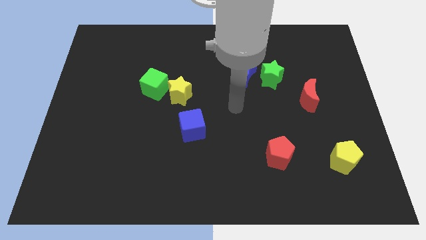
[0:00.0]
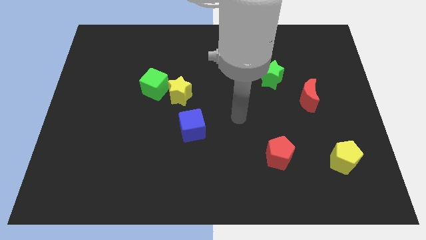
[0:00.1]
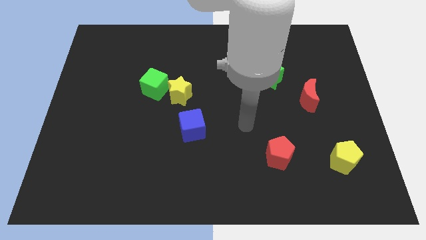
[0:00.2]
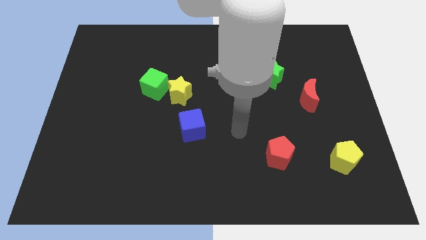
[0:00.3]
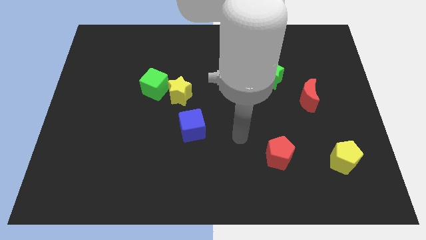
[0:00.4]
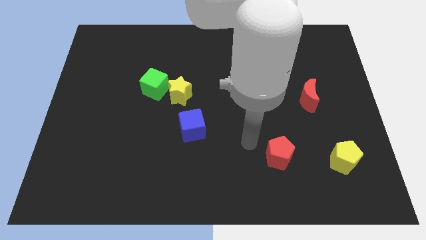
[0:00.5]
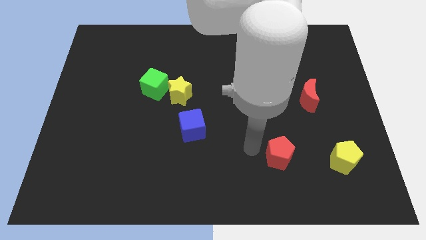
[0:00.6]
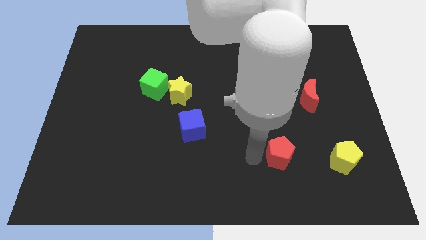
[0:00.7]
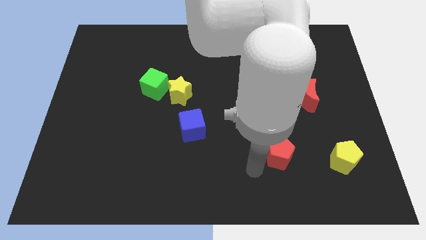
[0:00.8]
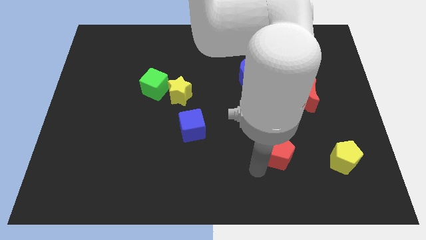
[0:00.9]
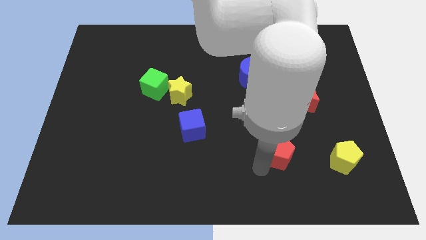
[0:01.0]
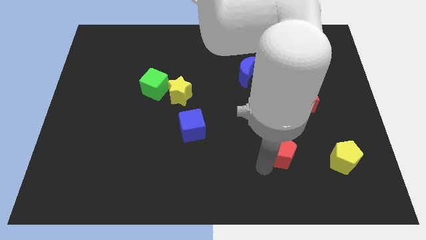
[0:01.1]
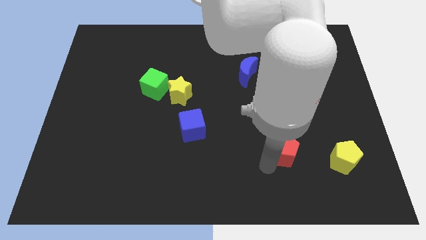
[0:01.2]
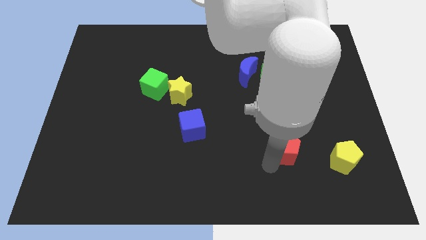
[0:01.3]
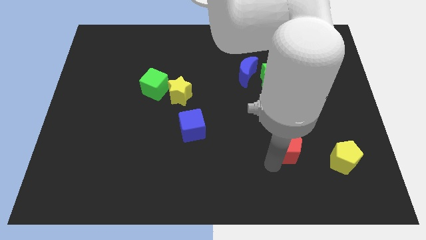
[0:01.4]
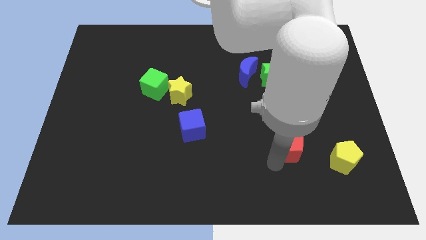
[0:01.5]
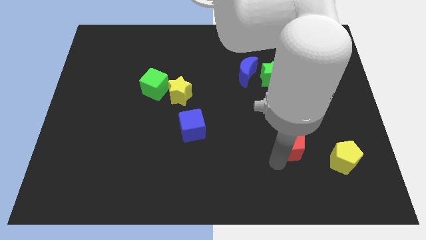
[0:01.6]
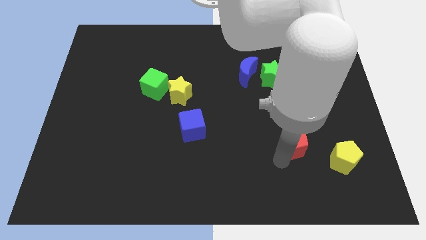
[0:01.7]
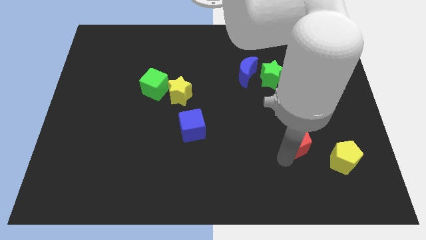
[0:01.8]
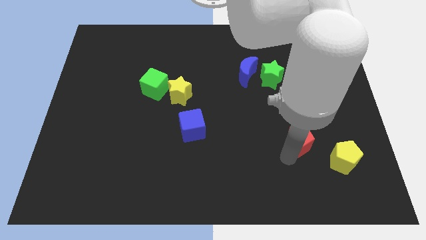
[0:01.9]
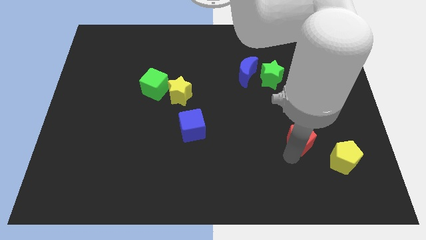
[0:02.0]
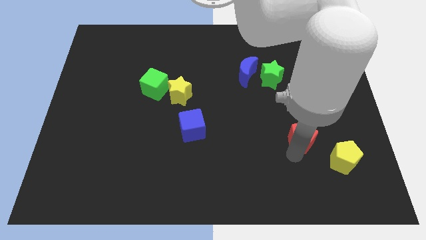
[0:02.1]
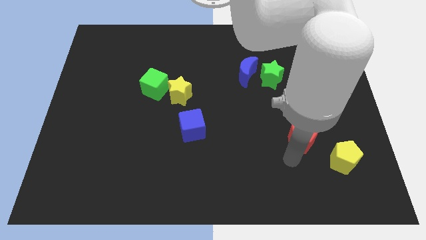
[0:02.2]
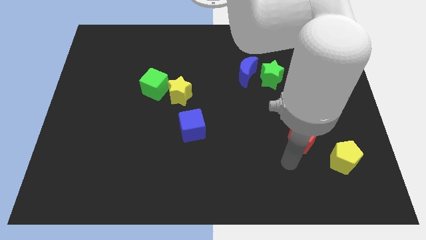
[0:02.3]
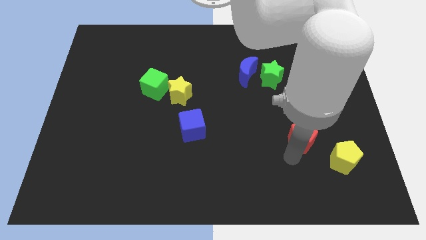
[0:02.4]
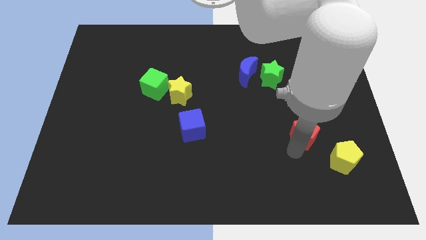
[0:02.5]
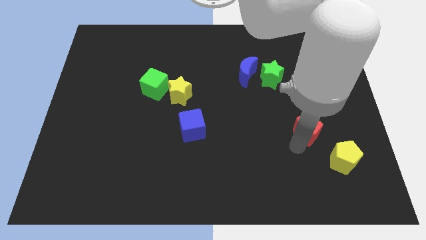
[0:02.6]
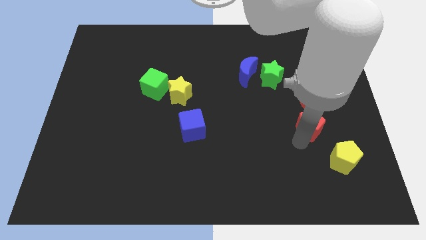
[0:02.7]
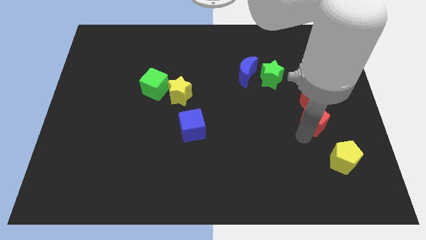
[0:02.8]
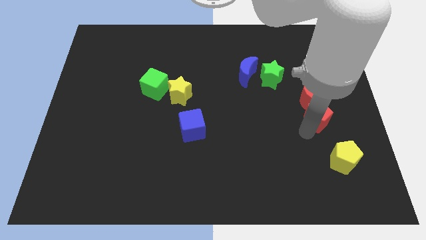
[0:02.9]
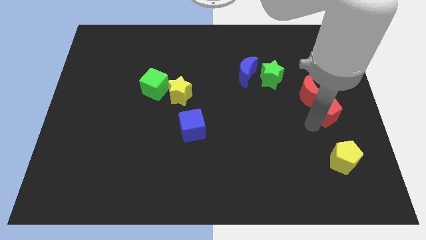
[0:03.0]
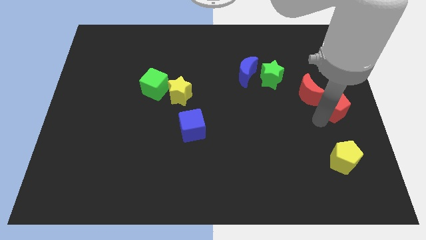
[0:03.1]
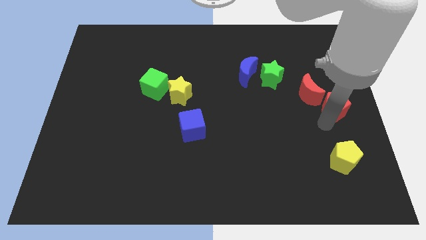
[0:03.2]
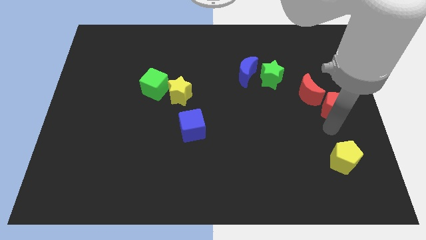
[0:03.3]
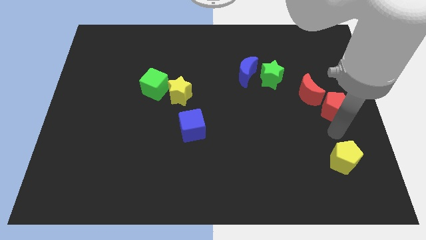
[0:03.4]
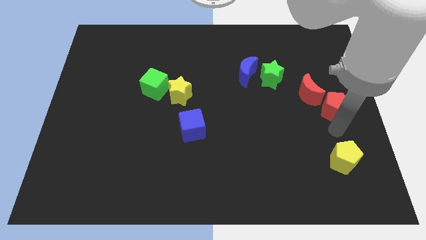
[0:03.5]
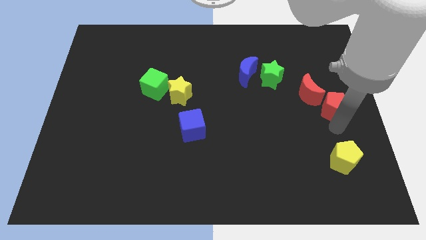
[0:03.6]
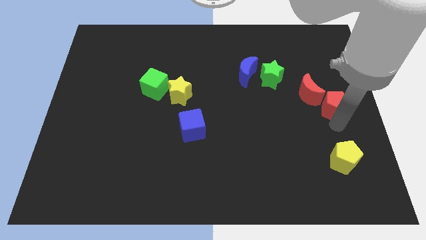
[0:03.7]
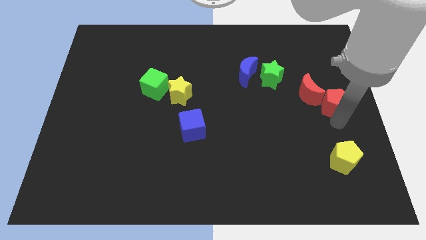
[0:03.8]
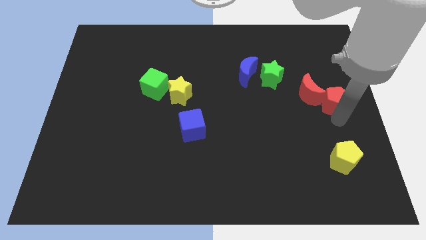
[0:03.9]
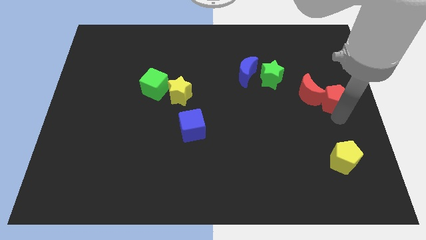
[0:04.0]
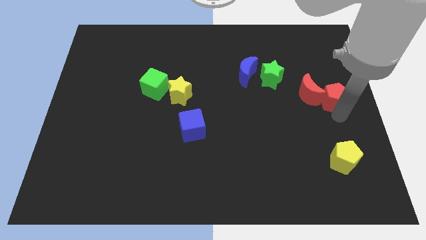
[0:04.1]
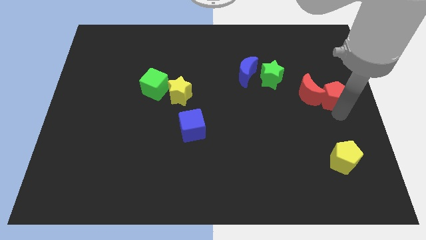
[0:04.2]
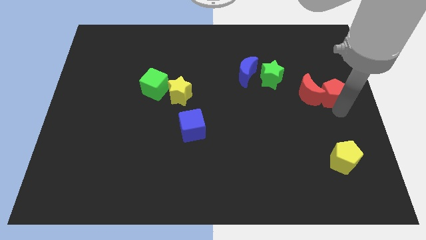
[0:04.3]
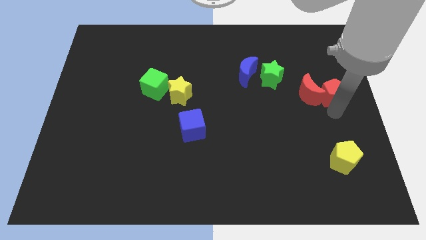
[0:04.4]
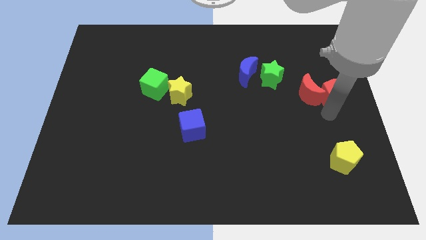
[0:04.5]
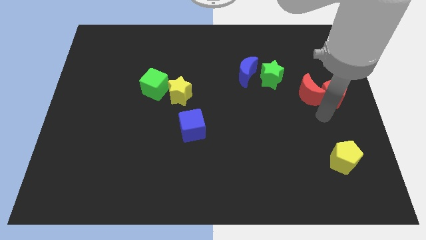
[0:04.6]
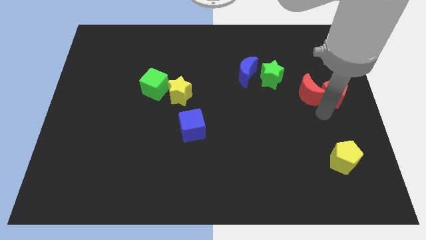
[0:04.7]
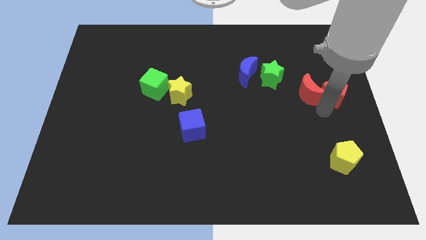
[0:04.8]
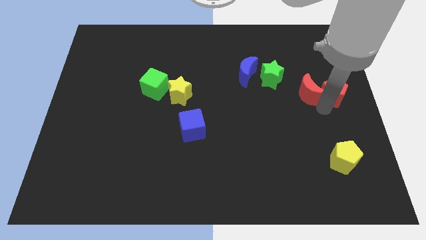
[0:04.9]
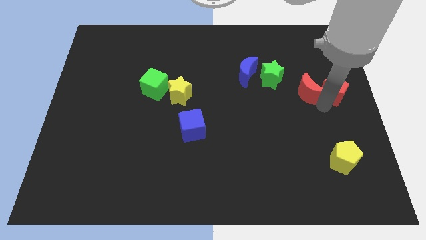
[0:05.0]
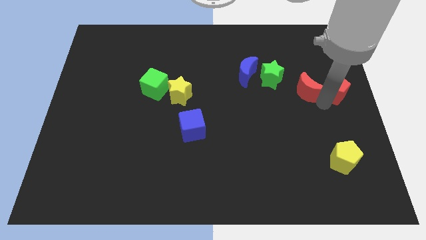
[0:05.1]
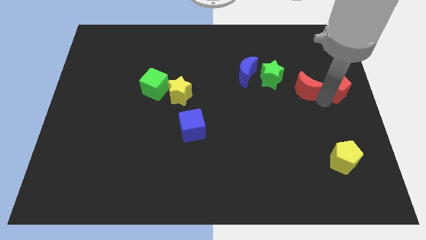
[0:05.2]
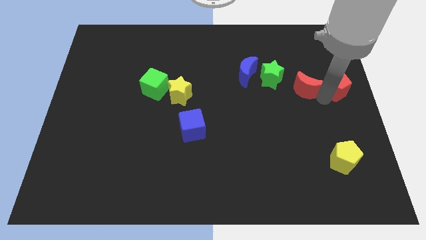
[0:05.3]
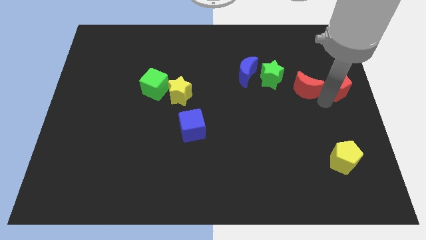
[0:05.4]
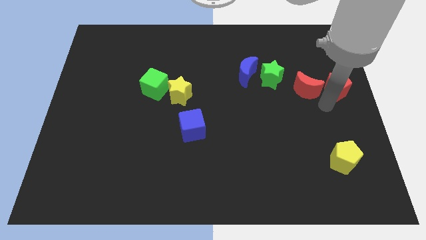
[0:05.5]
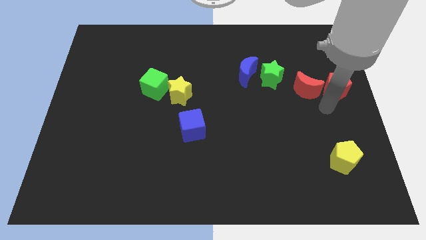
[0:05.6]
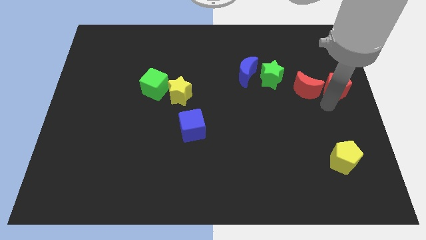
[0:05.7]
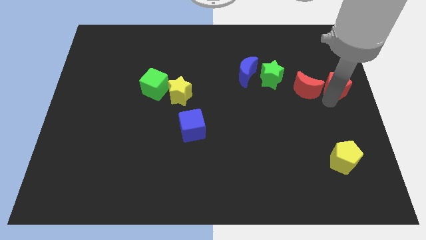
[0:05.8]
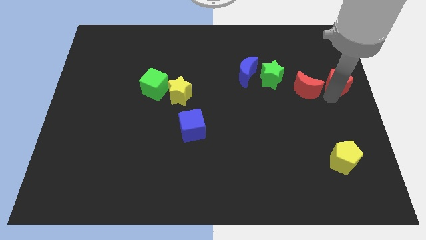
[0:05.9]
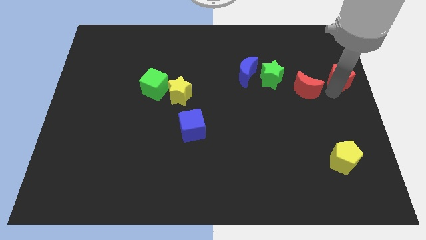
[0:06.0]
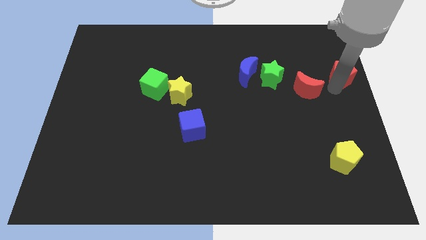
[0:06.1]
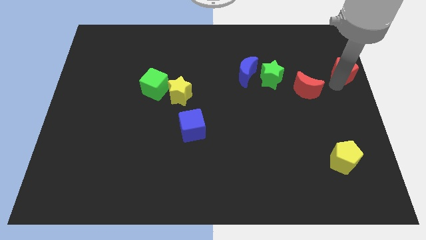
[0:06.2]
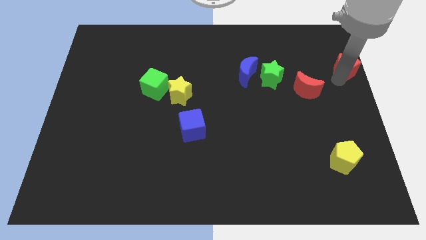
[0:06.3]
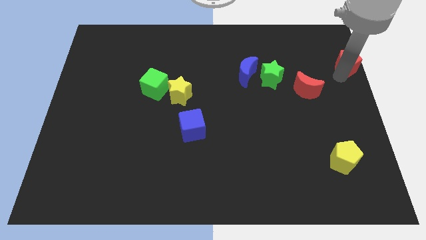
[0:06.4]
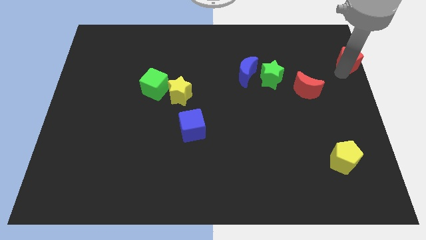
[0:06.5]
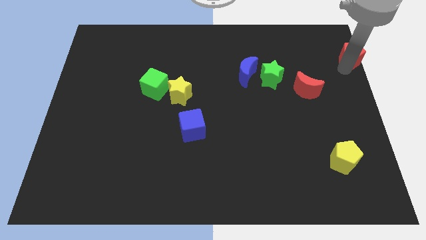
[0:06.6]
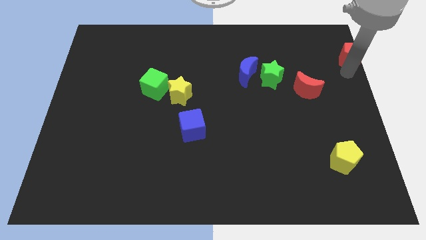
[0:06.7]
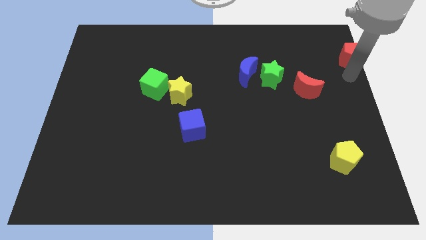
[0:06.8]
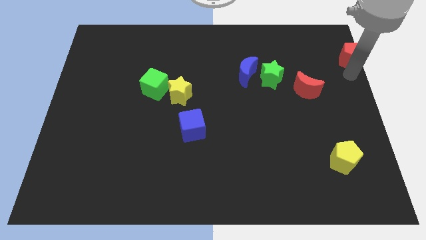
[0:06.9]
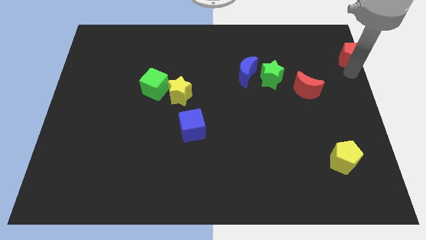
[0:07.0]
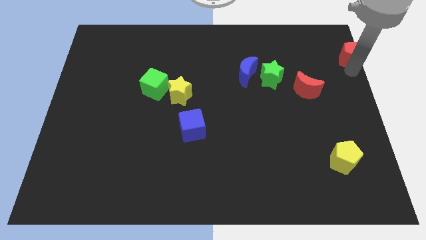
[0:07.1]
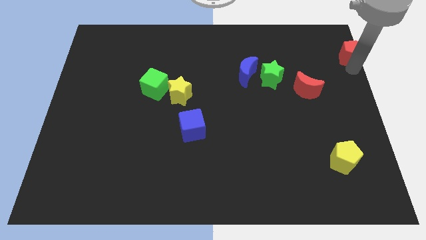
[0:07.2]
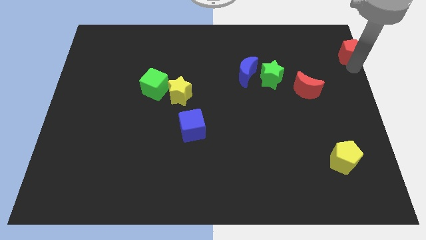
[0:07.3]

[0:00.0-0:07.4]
slide the red pentagon to the top right of the board
